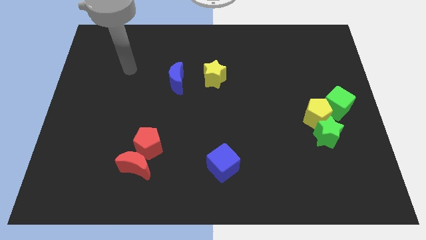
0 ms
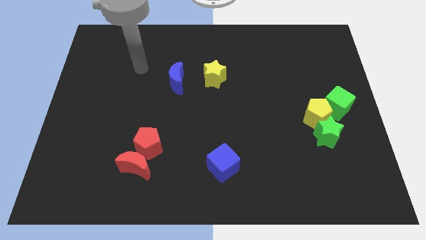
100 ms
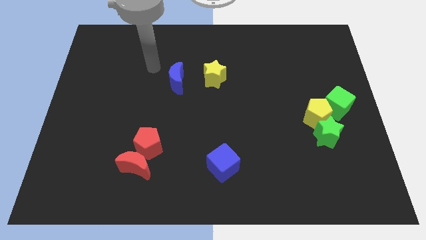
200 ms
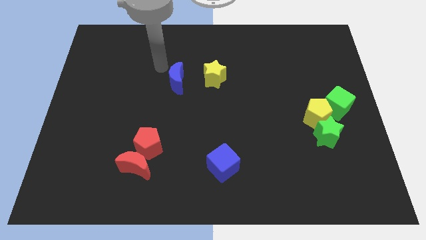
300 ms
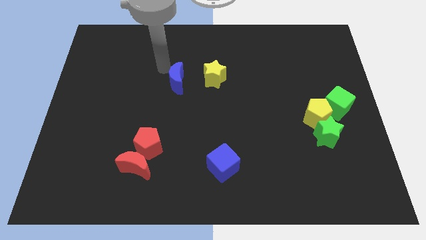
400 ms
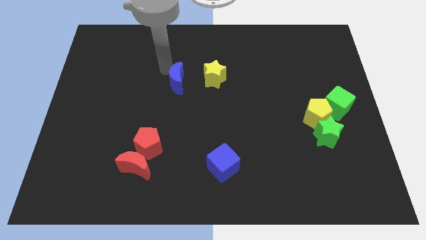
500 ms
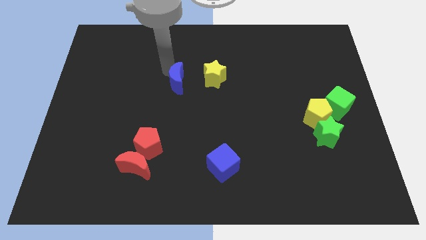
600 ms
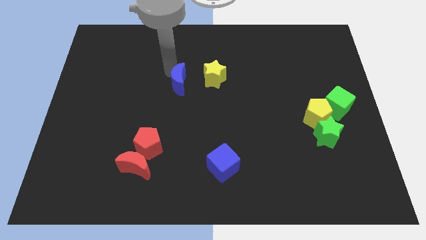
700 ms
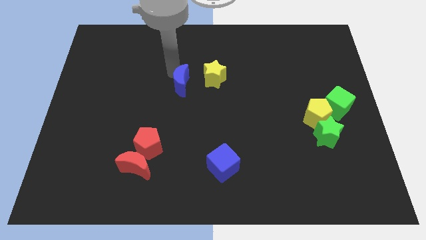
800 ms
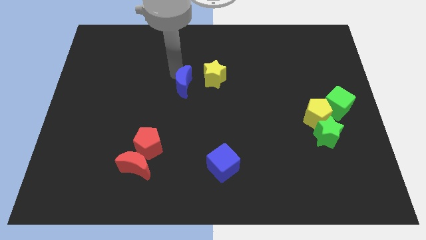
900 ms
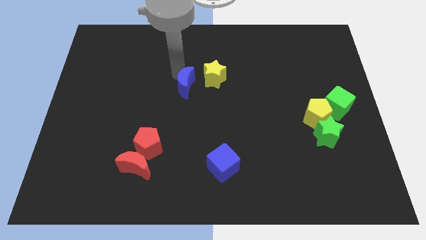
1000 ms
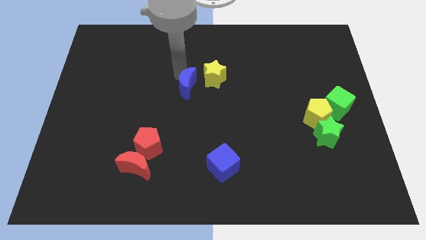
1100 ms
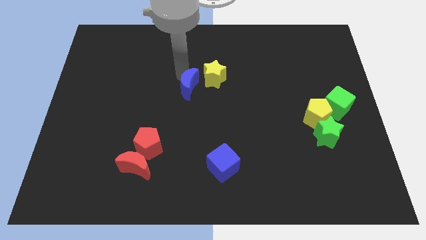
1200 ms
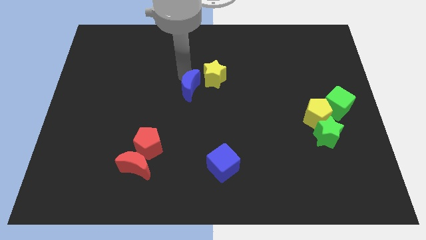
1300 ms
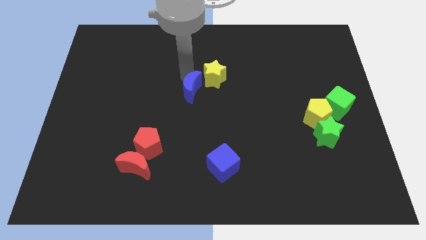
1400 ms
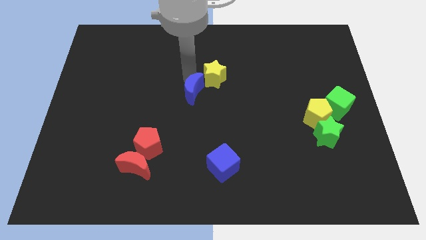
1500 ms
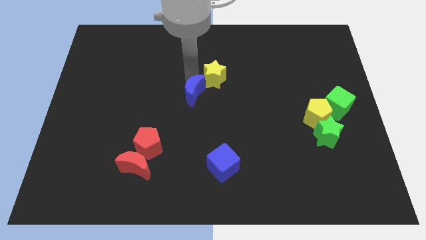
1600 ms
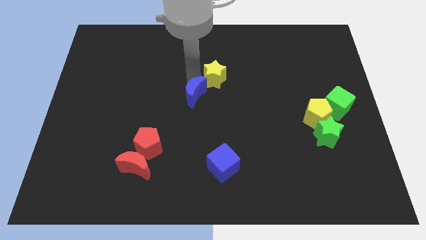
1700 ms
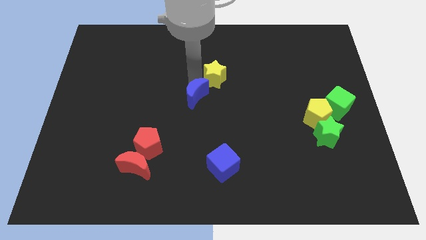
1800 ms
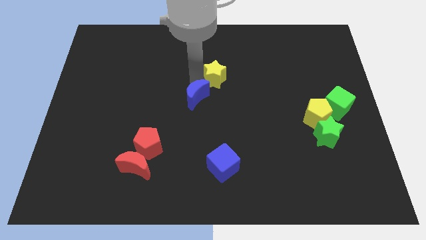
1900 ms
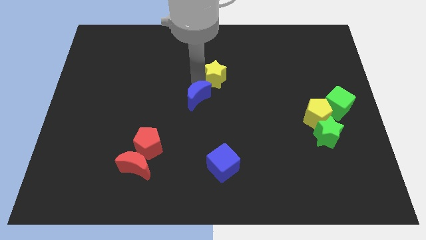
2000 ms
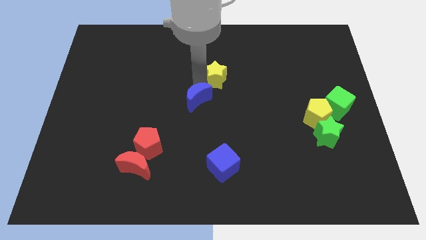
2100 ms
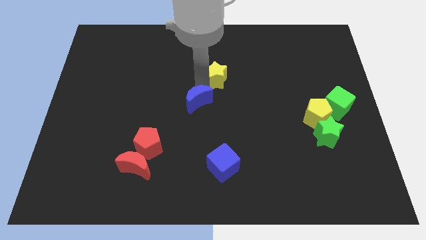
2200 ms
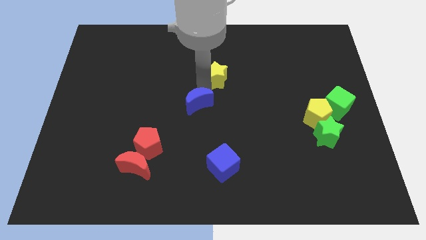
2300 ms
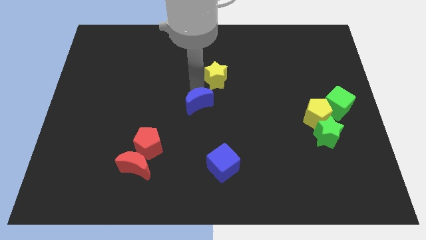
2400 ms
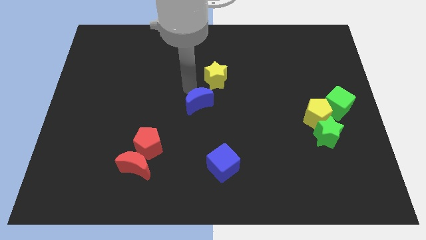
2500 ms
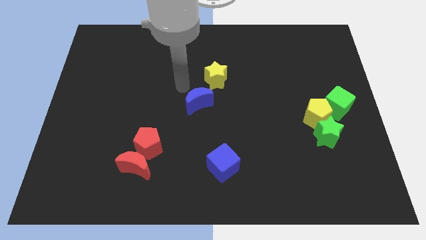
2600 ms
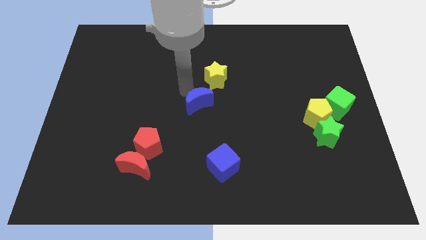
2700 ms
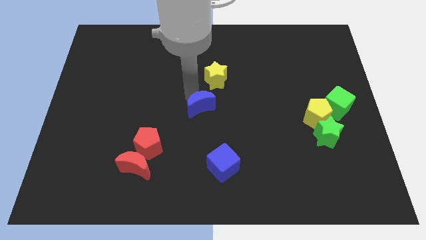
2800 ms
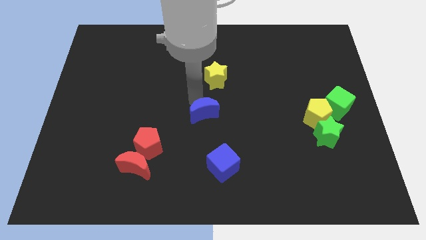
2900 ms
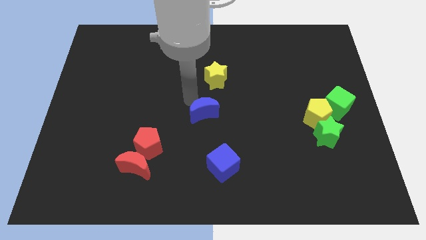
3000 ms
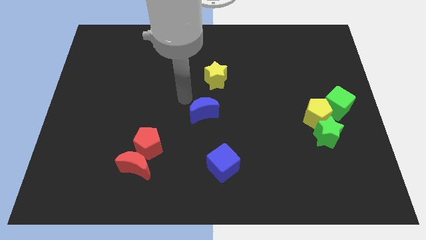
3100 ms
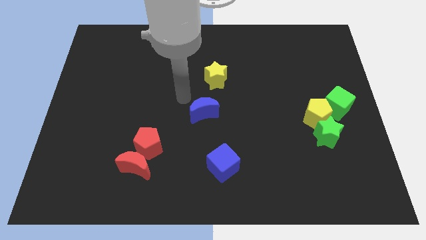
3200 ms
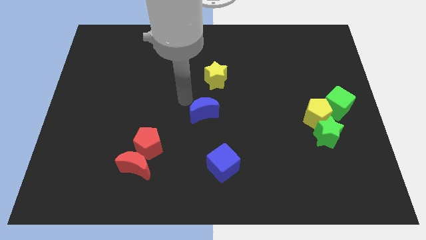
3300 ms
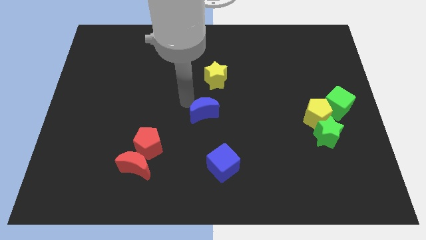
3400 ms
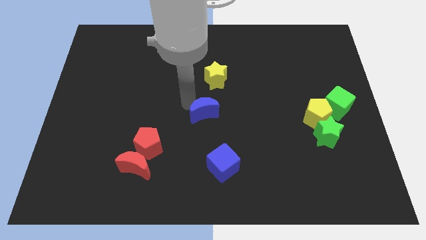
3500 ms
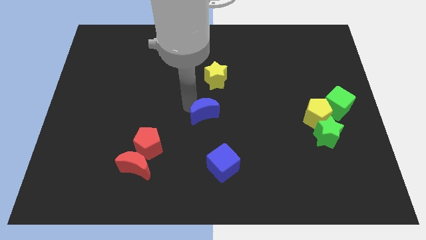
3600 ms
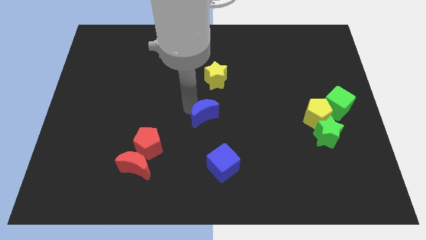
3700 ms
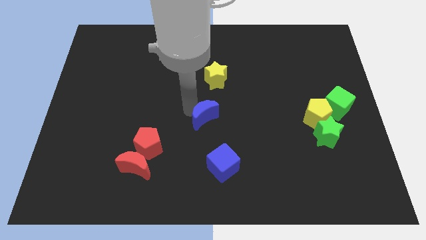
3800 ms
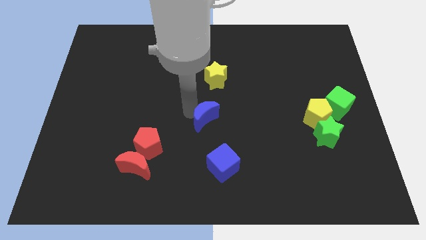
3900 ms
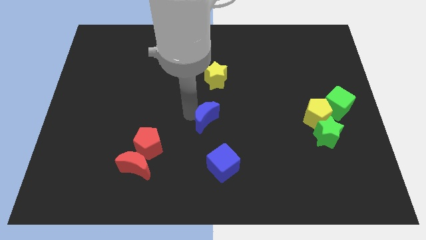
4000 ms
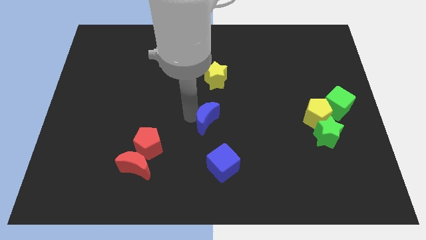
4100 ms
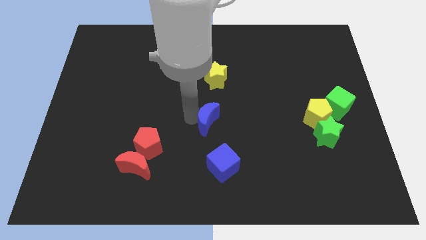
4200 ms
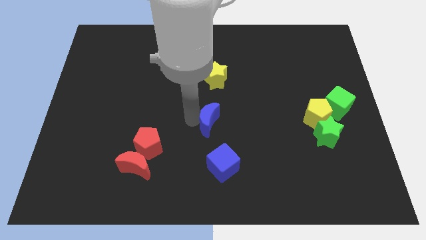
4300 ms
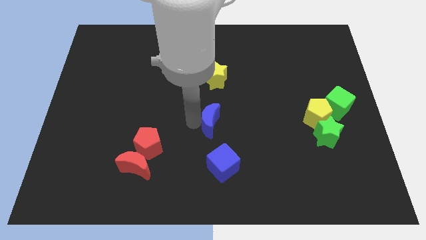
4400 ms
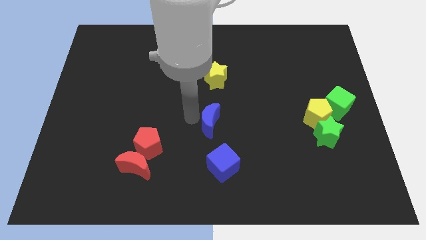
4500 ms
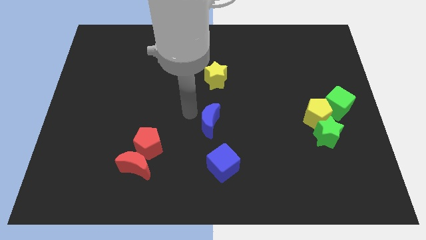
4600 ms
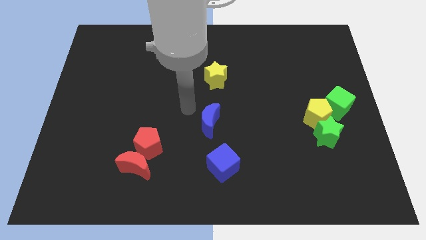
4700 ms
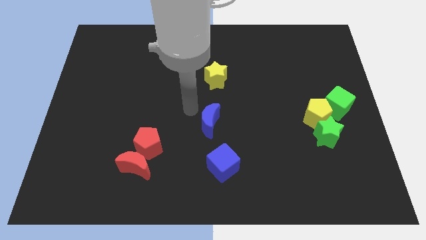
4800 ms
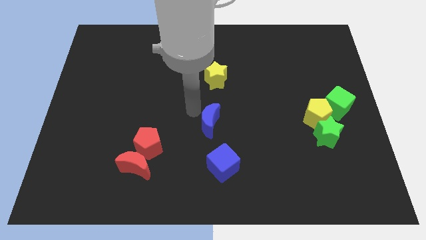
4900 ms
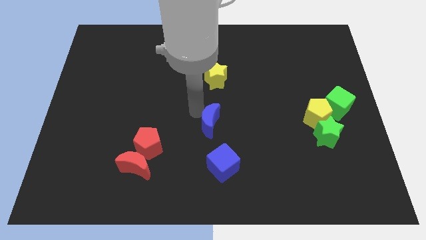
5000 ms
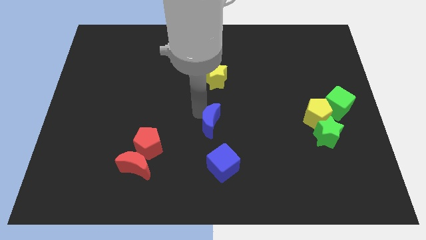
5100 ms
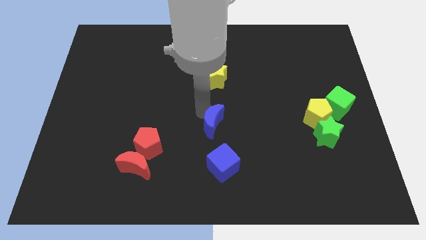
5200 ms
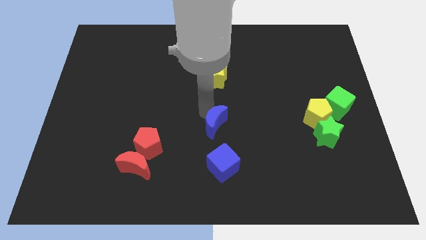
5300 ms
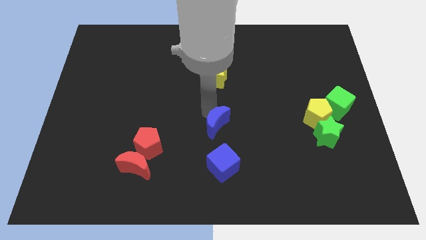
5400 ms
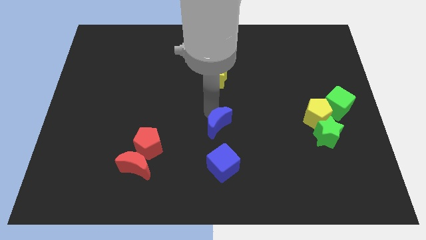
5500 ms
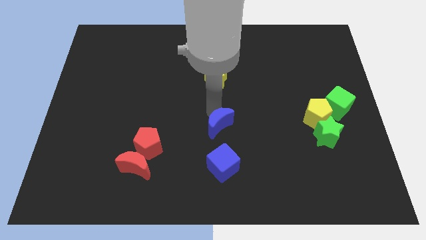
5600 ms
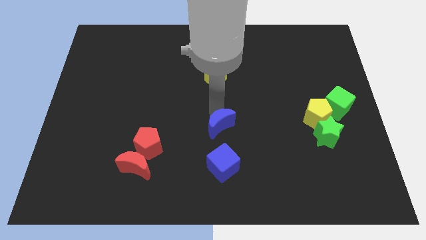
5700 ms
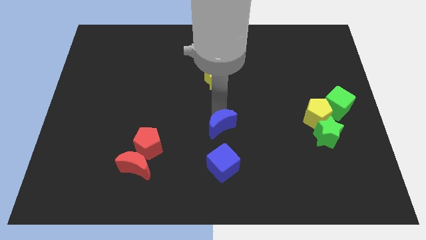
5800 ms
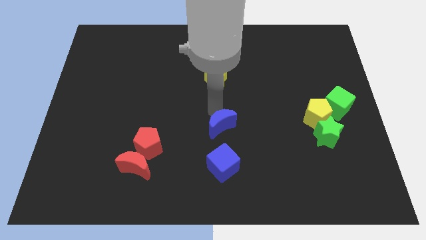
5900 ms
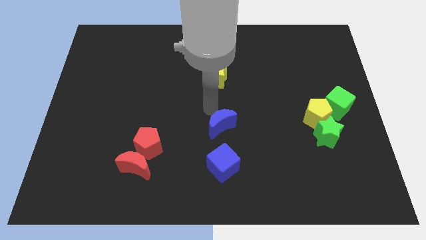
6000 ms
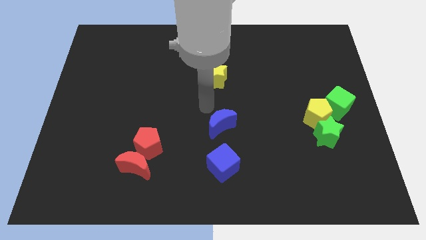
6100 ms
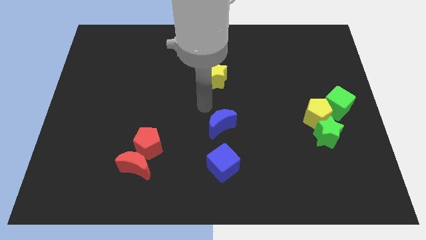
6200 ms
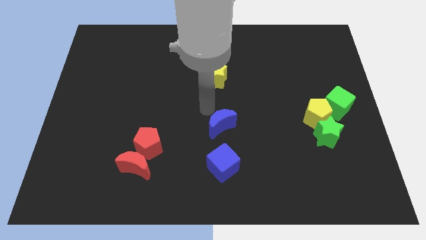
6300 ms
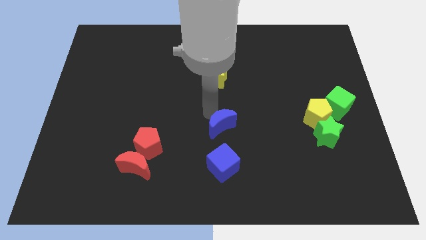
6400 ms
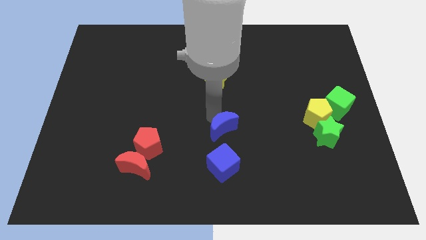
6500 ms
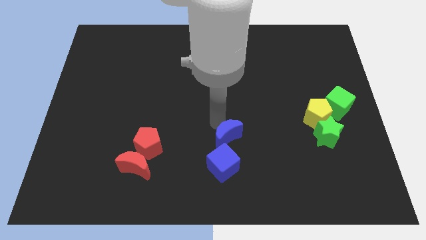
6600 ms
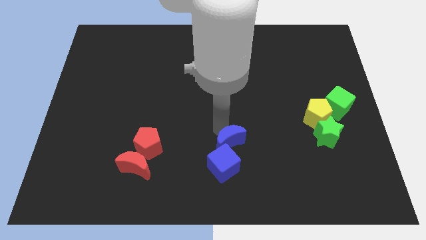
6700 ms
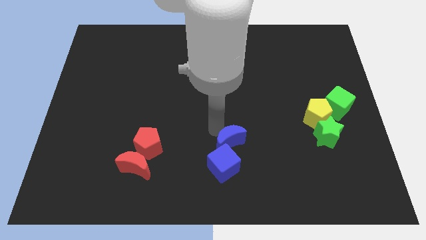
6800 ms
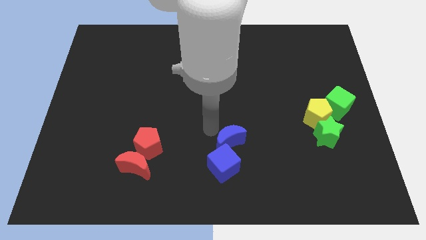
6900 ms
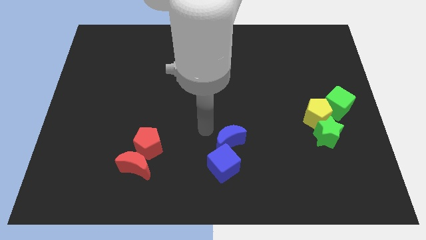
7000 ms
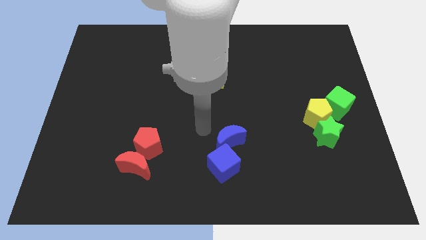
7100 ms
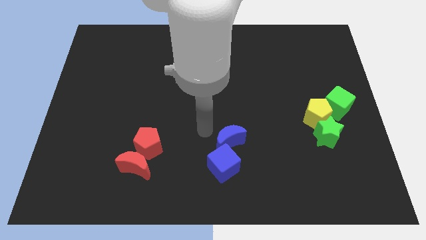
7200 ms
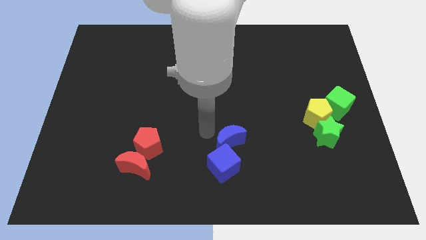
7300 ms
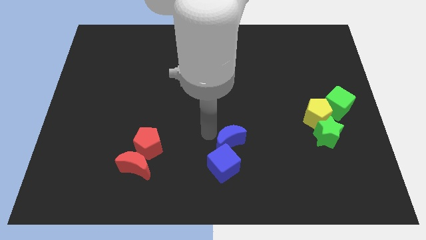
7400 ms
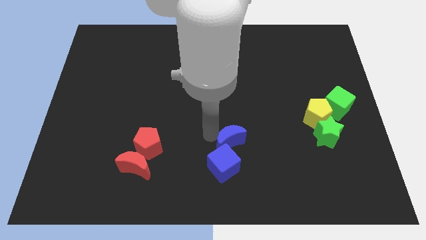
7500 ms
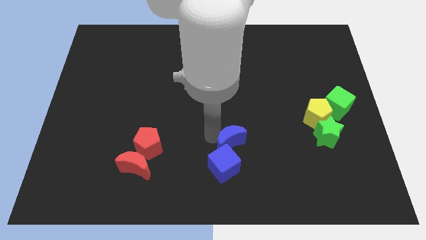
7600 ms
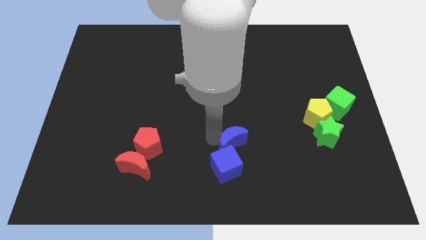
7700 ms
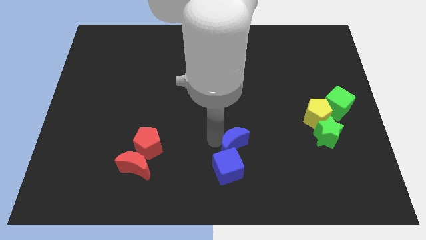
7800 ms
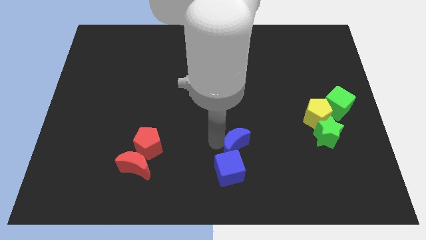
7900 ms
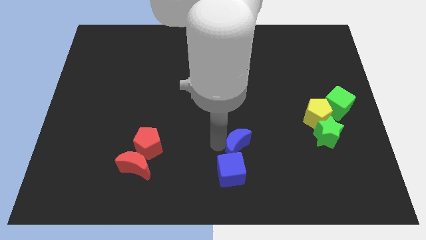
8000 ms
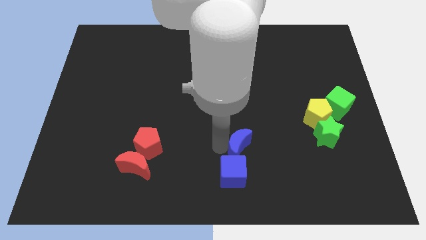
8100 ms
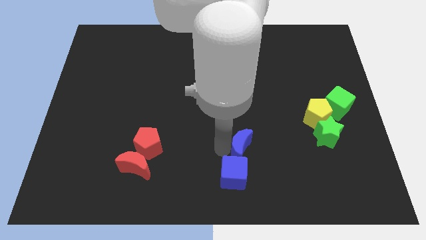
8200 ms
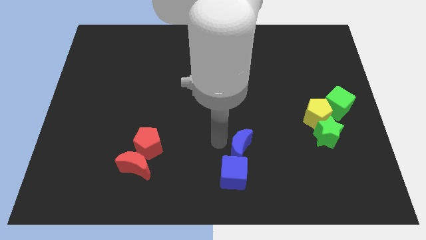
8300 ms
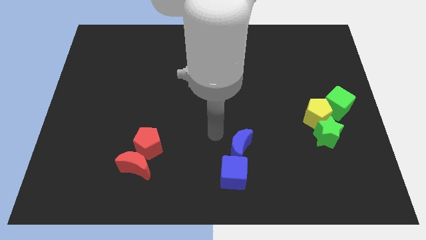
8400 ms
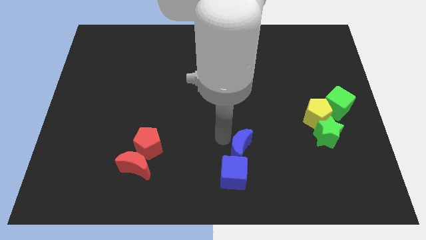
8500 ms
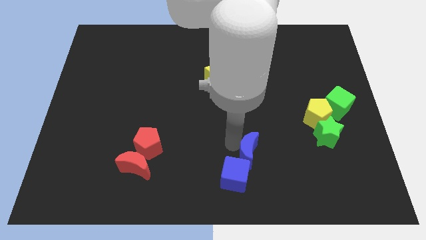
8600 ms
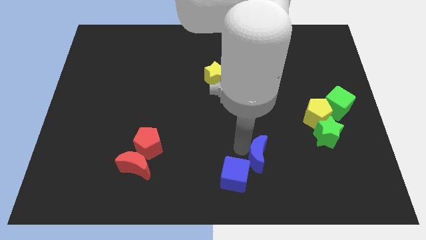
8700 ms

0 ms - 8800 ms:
put the blue moon to the right of the blue cube
